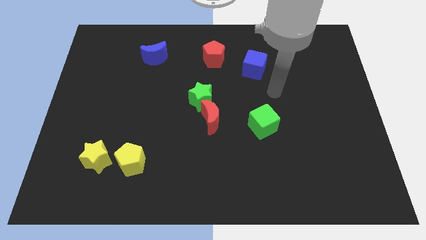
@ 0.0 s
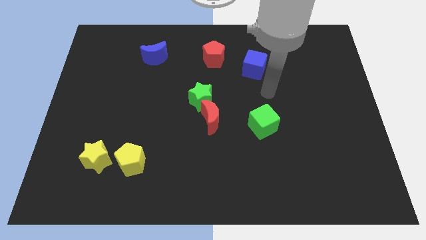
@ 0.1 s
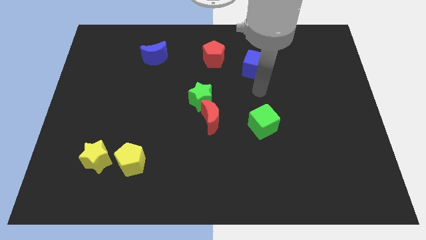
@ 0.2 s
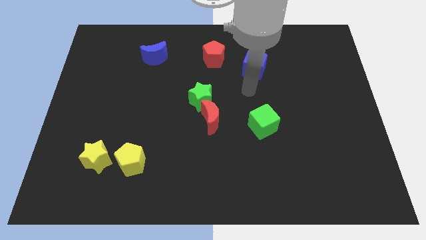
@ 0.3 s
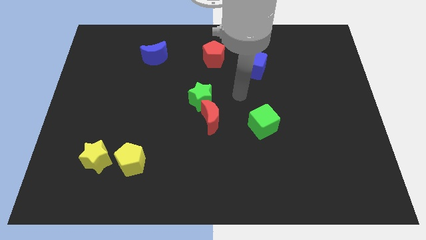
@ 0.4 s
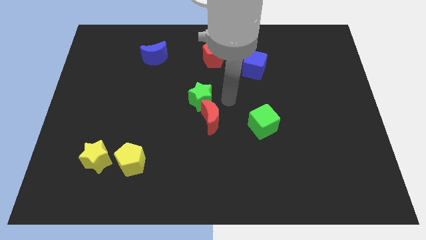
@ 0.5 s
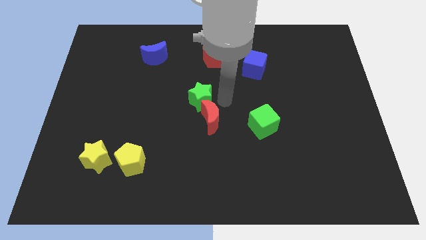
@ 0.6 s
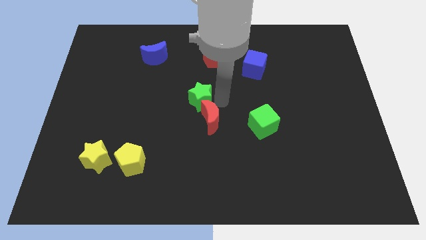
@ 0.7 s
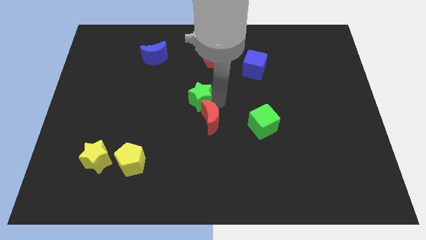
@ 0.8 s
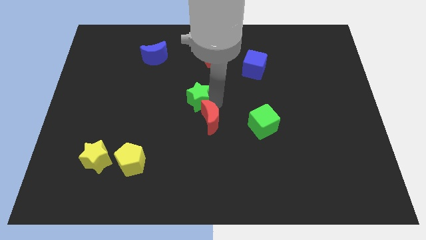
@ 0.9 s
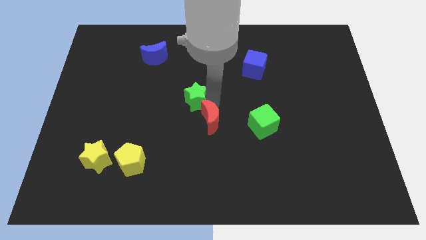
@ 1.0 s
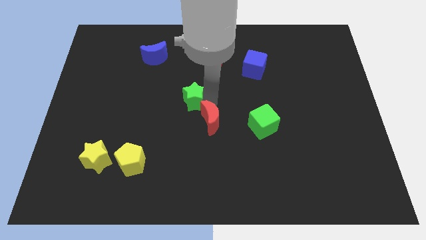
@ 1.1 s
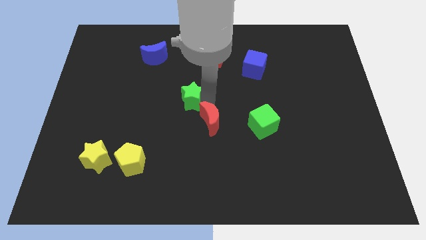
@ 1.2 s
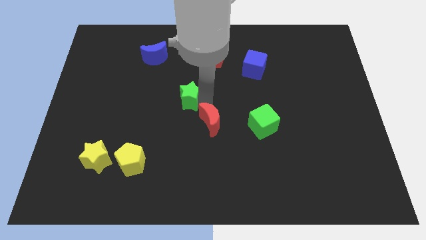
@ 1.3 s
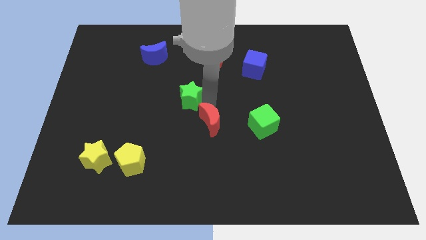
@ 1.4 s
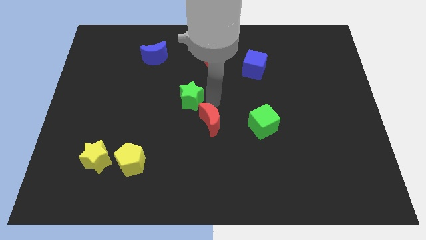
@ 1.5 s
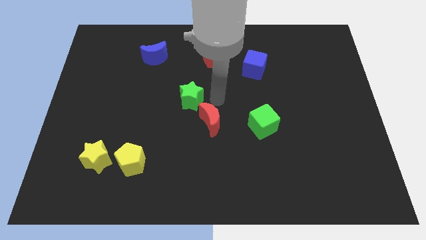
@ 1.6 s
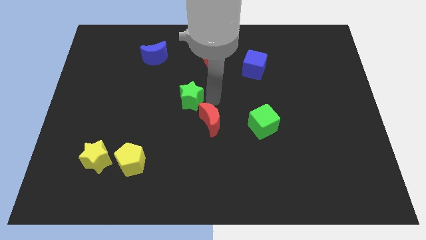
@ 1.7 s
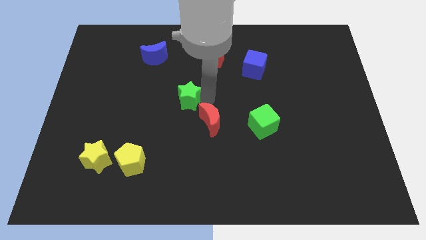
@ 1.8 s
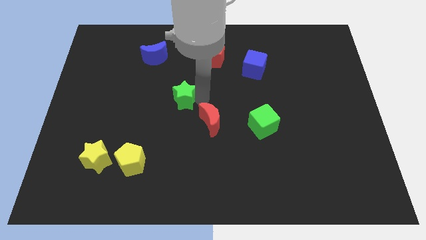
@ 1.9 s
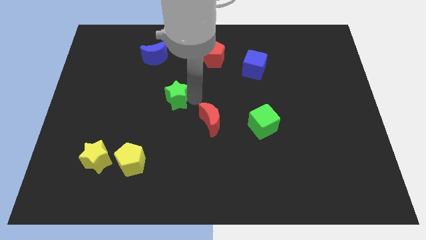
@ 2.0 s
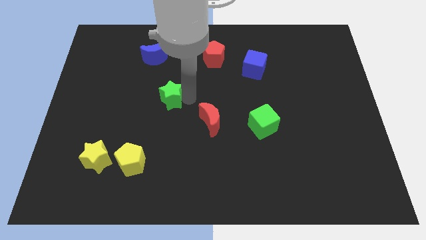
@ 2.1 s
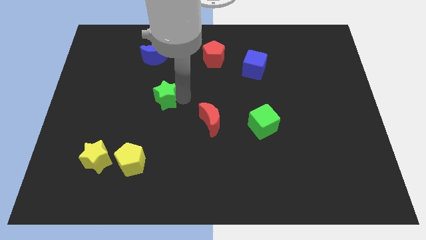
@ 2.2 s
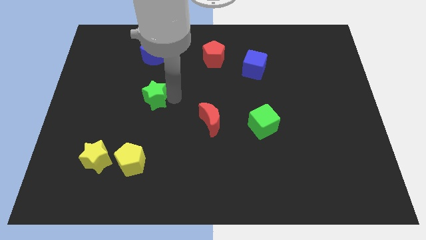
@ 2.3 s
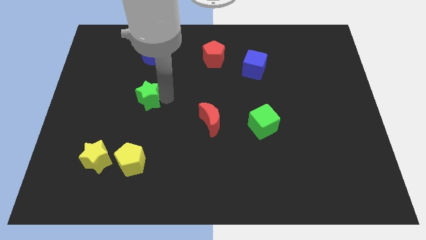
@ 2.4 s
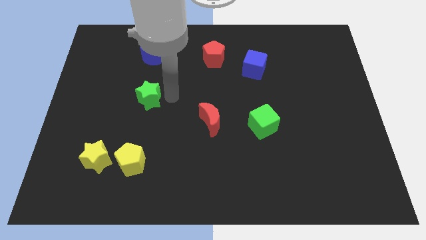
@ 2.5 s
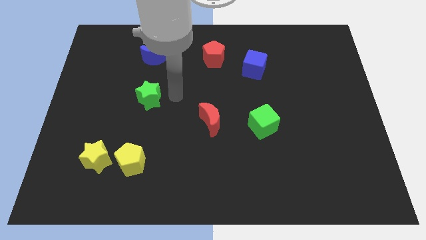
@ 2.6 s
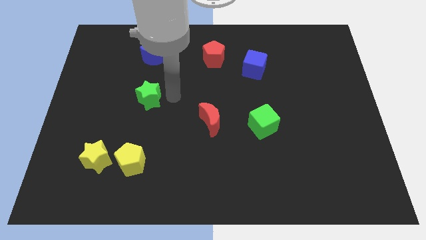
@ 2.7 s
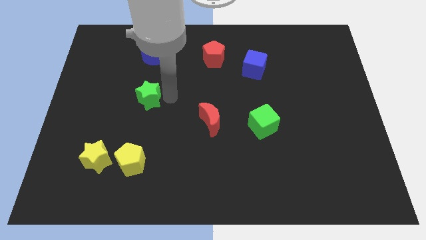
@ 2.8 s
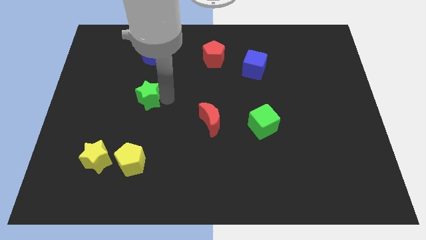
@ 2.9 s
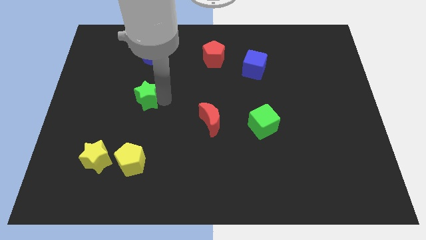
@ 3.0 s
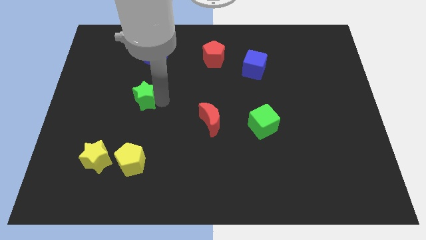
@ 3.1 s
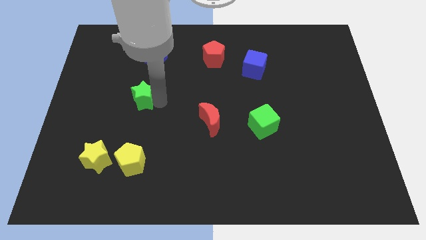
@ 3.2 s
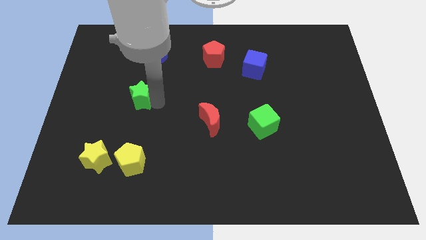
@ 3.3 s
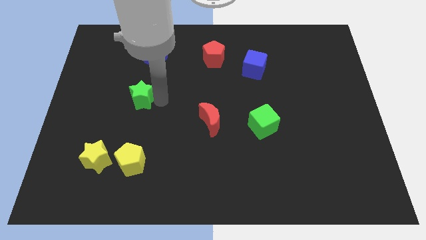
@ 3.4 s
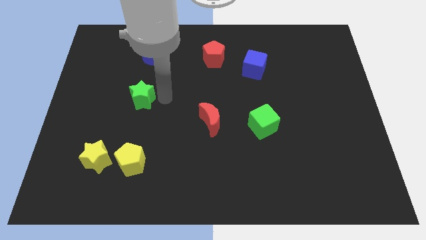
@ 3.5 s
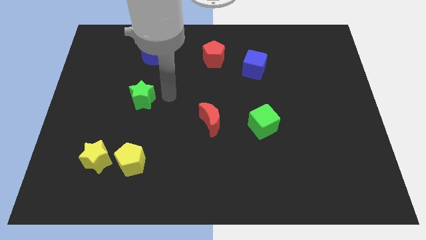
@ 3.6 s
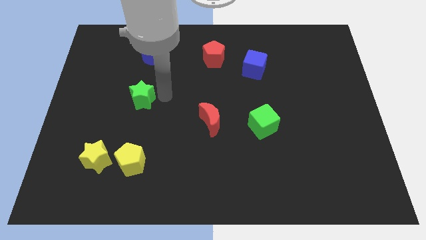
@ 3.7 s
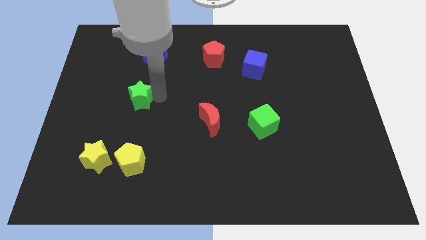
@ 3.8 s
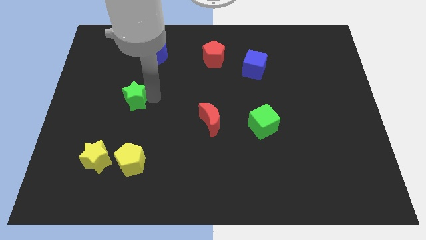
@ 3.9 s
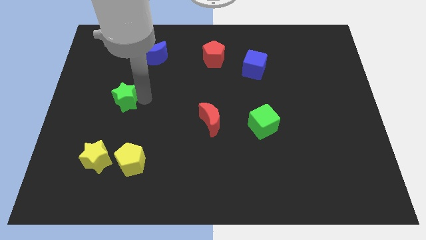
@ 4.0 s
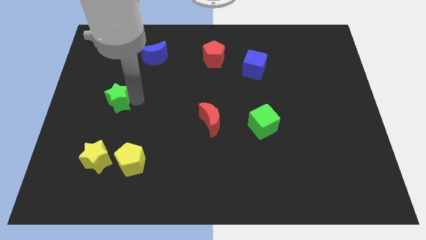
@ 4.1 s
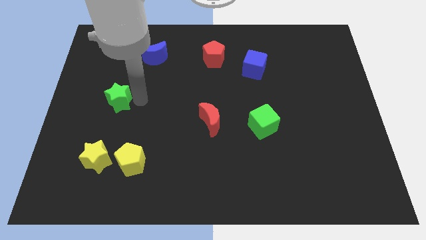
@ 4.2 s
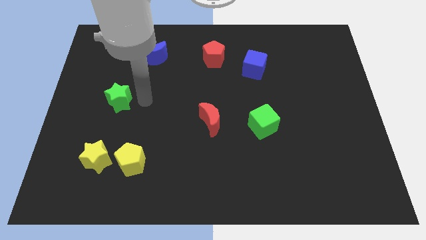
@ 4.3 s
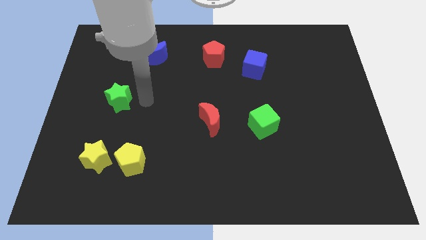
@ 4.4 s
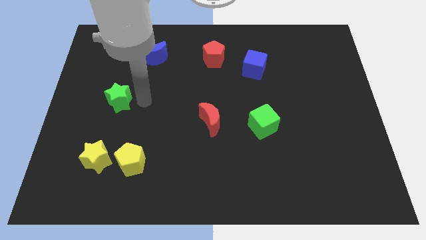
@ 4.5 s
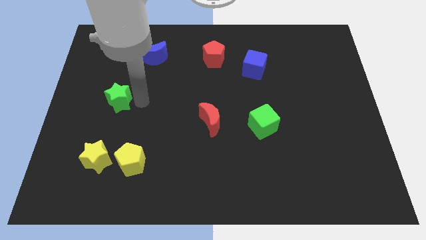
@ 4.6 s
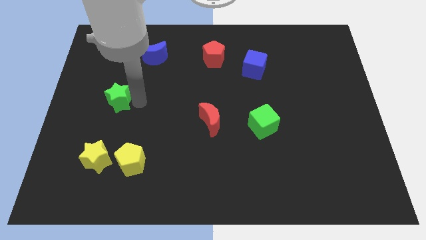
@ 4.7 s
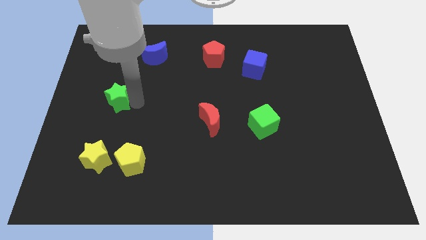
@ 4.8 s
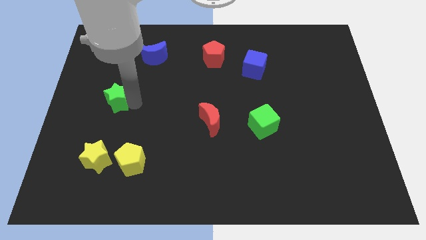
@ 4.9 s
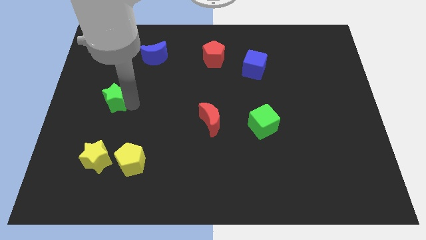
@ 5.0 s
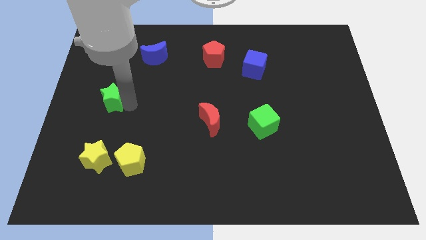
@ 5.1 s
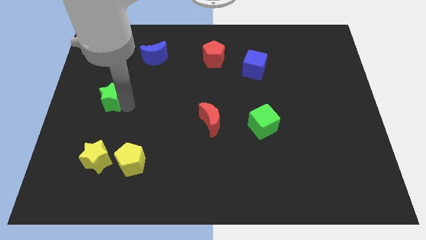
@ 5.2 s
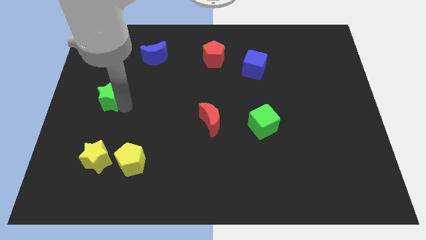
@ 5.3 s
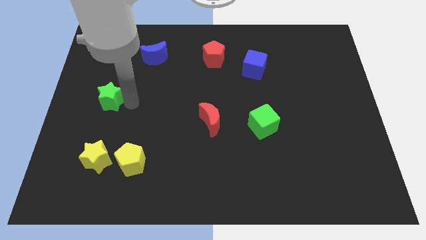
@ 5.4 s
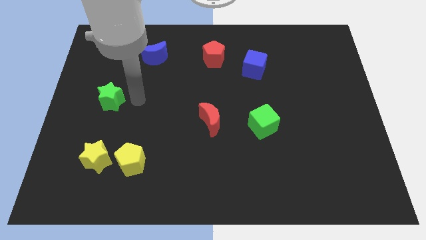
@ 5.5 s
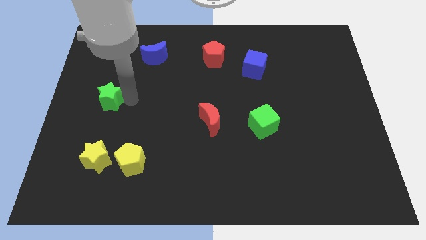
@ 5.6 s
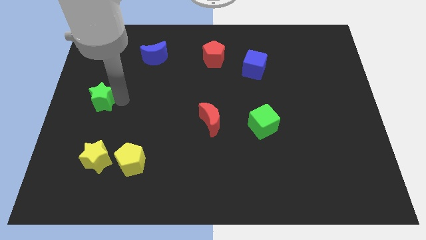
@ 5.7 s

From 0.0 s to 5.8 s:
slide the green star to the left side of the board

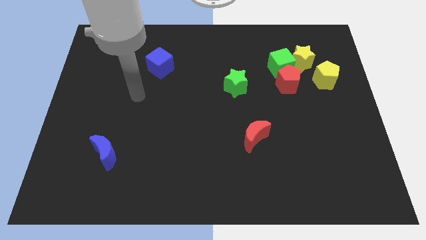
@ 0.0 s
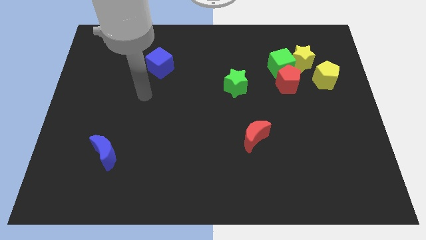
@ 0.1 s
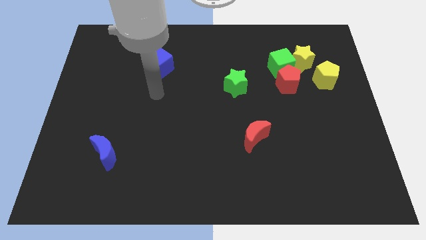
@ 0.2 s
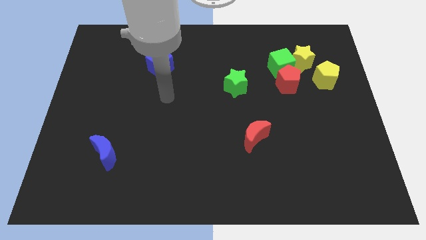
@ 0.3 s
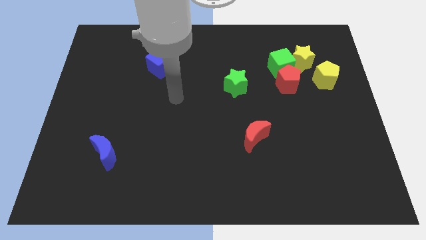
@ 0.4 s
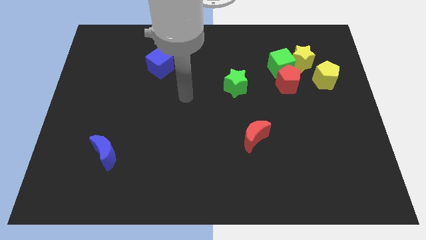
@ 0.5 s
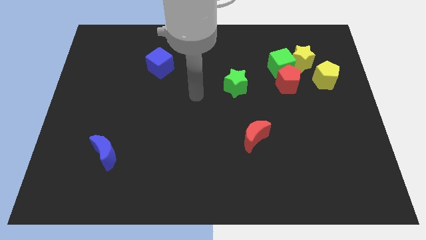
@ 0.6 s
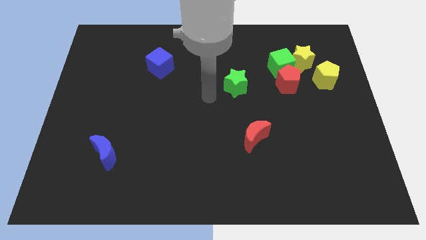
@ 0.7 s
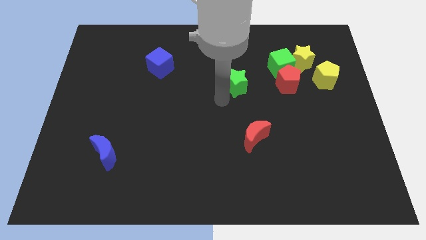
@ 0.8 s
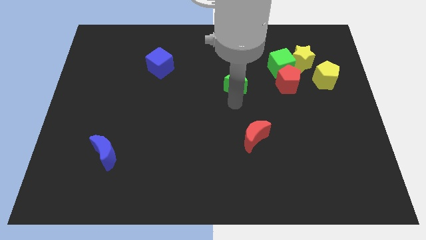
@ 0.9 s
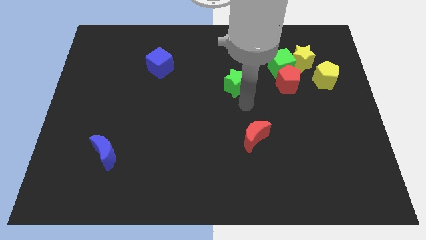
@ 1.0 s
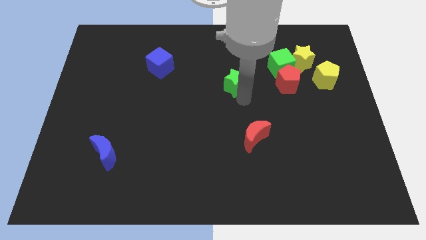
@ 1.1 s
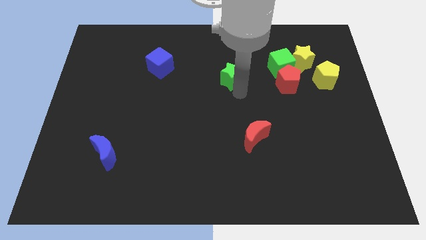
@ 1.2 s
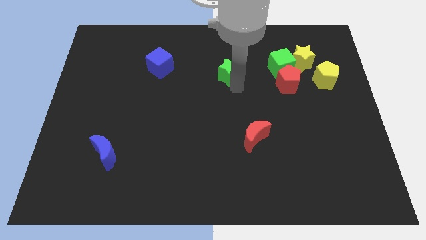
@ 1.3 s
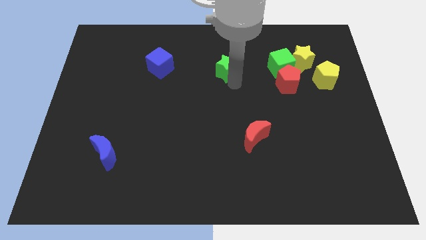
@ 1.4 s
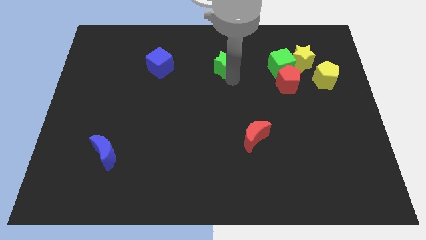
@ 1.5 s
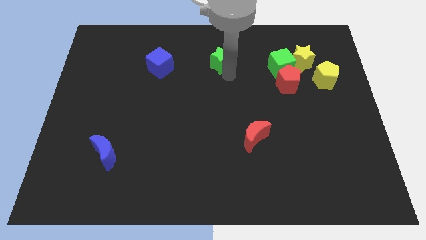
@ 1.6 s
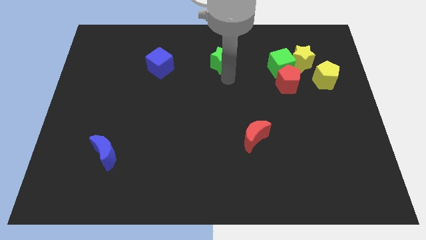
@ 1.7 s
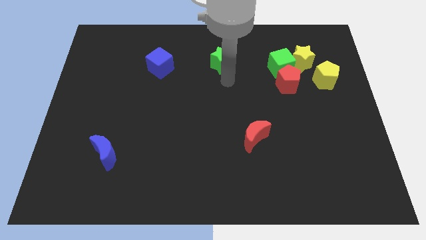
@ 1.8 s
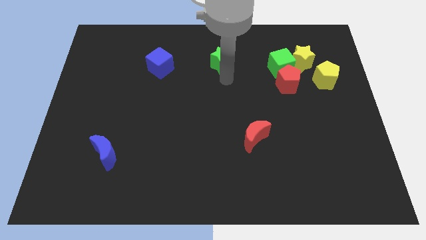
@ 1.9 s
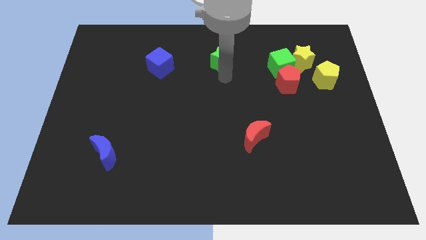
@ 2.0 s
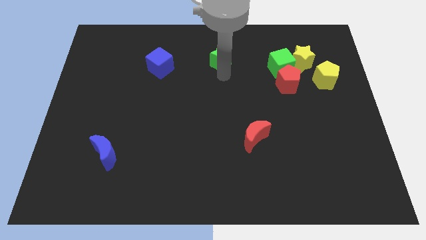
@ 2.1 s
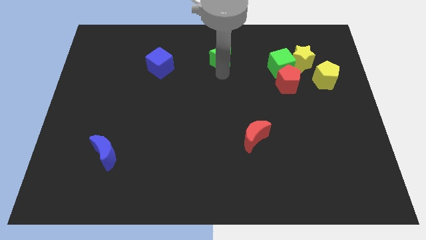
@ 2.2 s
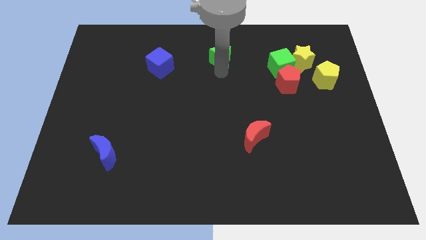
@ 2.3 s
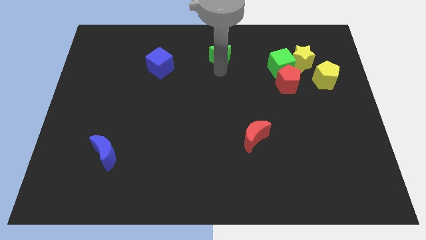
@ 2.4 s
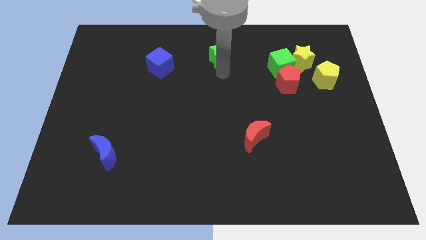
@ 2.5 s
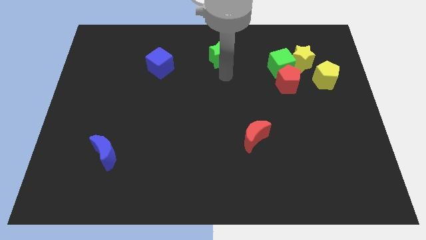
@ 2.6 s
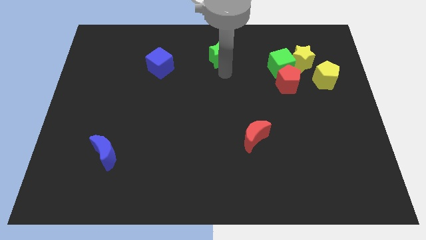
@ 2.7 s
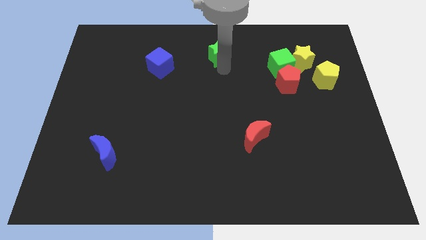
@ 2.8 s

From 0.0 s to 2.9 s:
put the green star to the top
